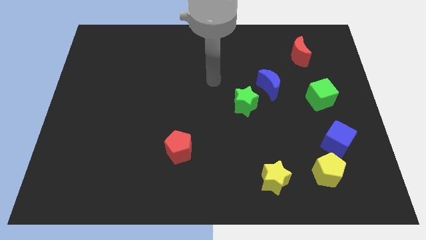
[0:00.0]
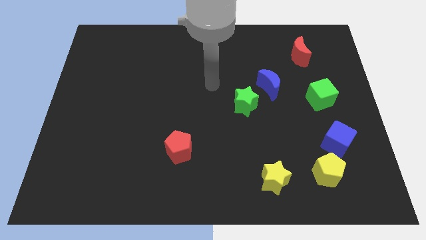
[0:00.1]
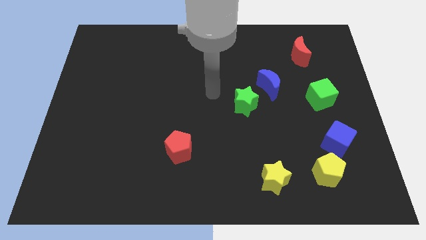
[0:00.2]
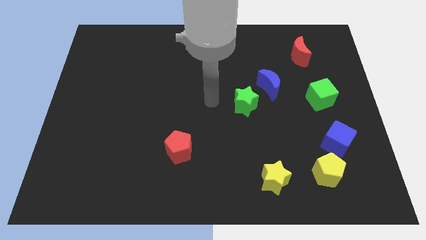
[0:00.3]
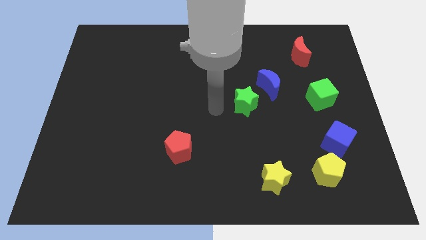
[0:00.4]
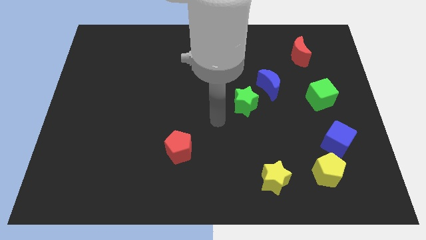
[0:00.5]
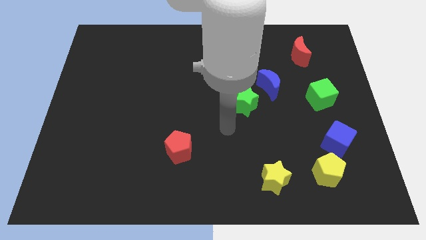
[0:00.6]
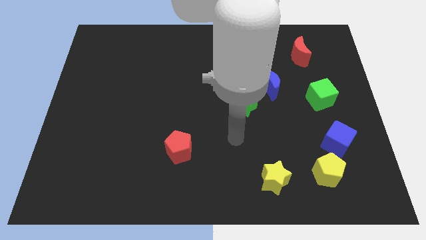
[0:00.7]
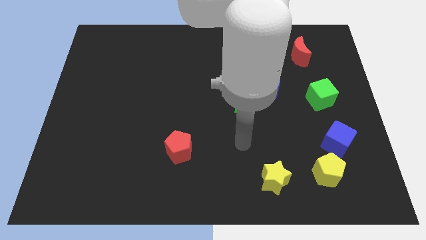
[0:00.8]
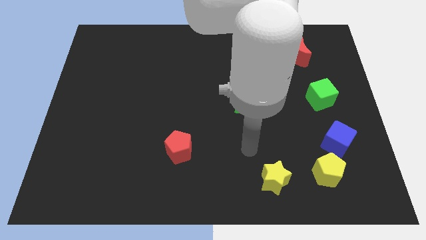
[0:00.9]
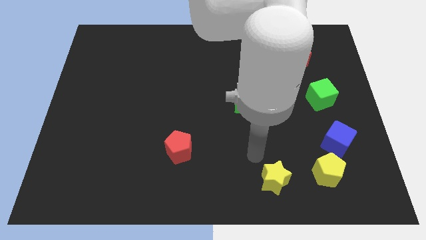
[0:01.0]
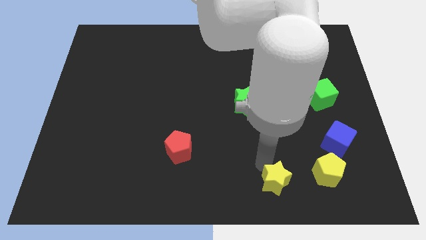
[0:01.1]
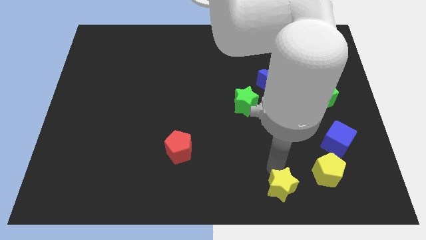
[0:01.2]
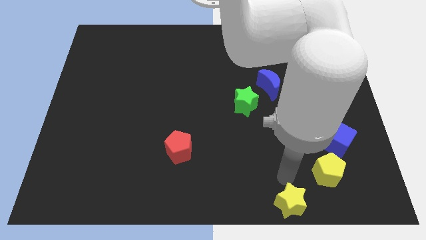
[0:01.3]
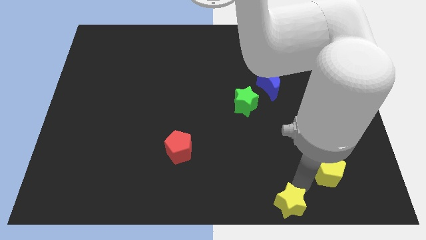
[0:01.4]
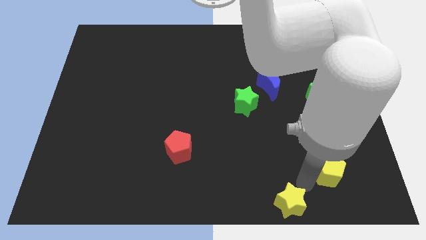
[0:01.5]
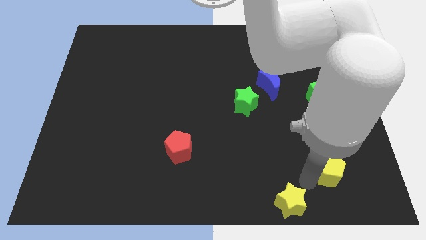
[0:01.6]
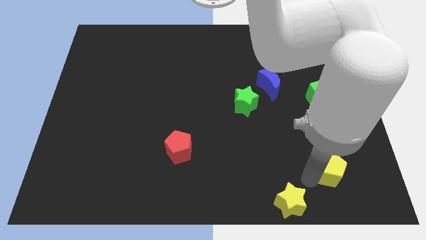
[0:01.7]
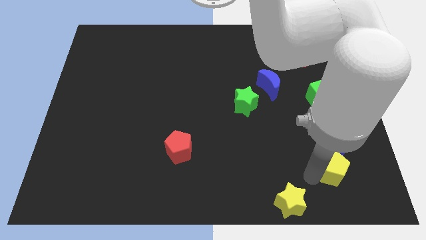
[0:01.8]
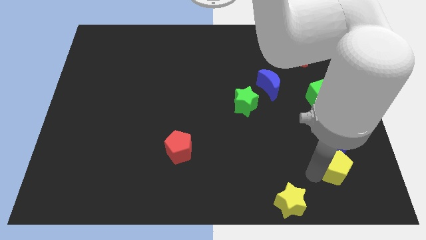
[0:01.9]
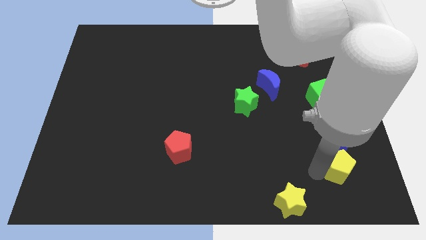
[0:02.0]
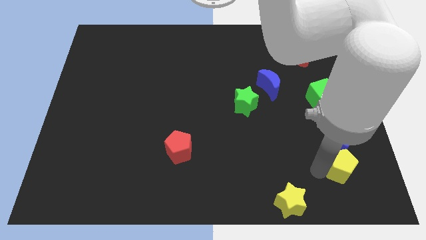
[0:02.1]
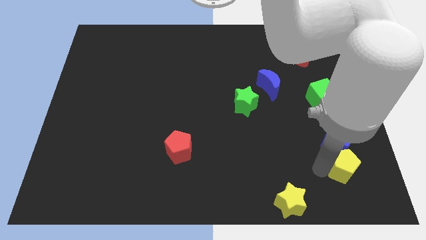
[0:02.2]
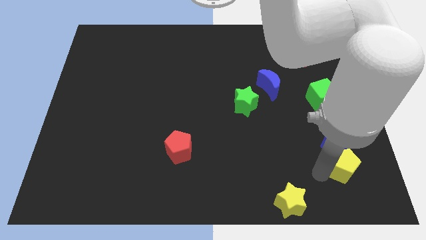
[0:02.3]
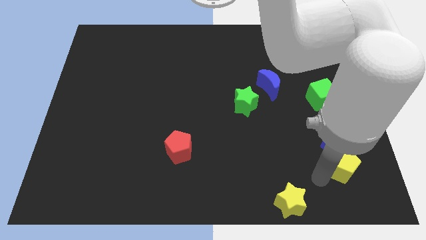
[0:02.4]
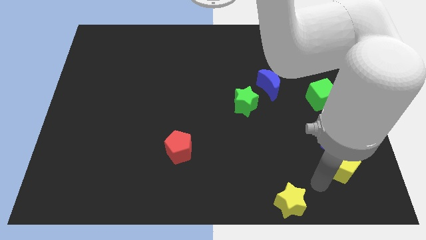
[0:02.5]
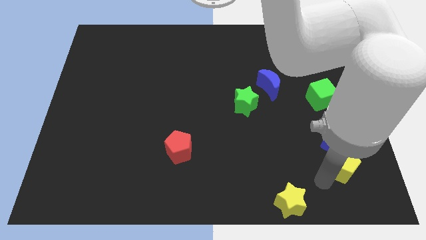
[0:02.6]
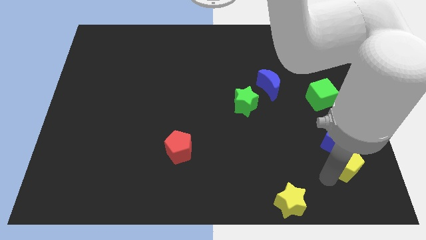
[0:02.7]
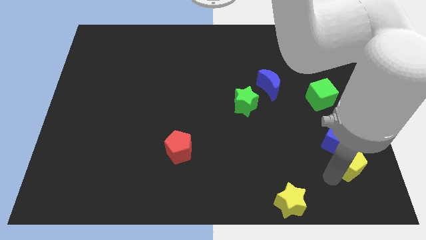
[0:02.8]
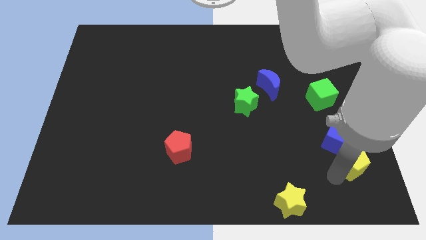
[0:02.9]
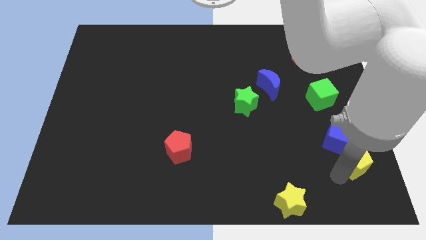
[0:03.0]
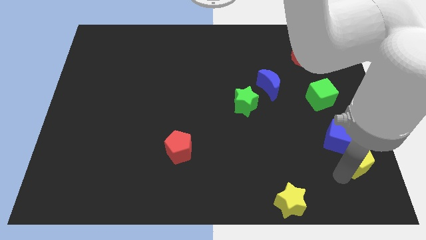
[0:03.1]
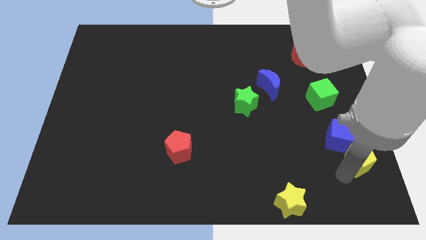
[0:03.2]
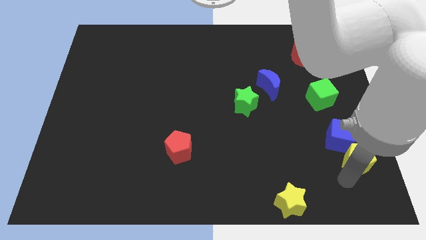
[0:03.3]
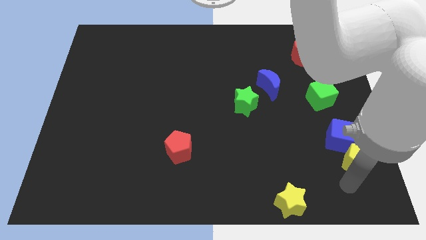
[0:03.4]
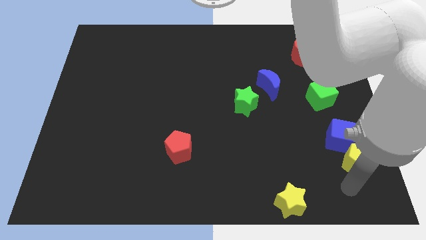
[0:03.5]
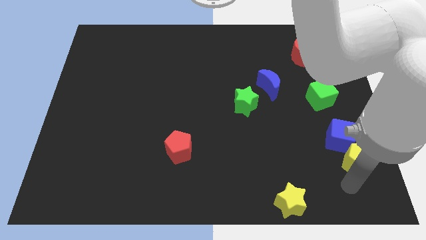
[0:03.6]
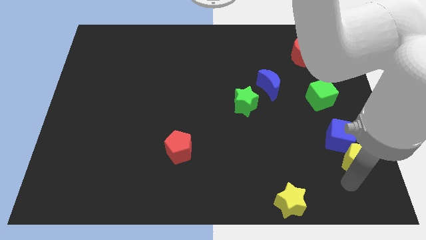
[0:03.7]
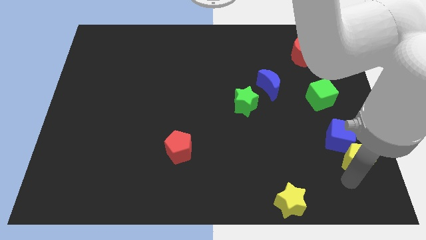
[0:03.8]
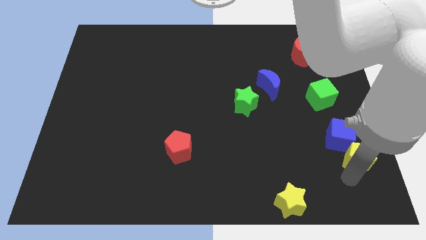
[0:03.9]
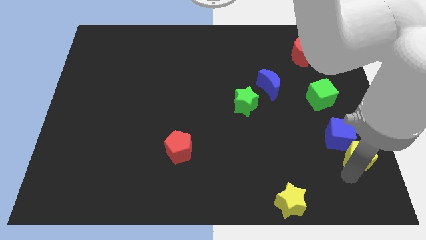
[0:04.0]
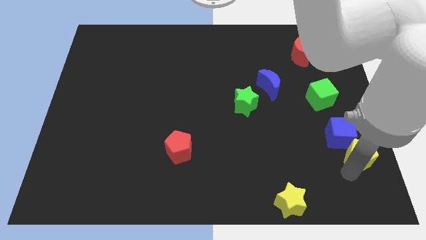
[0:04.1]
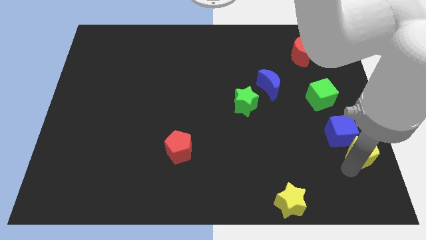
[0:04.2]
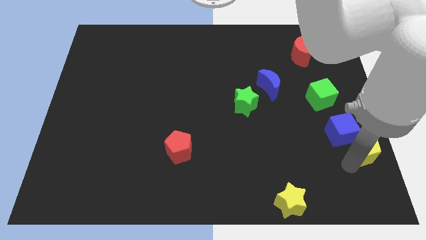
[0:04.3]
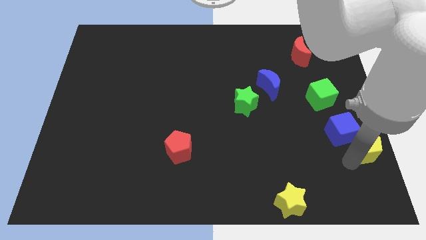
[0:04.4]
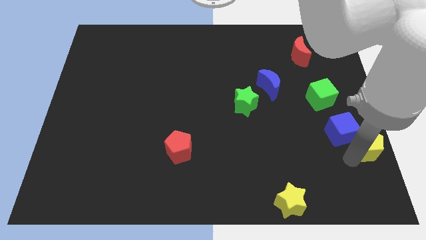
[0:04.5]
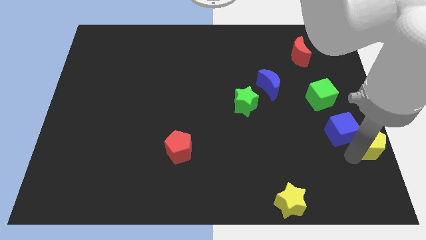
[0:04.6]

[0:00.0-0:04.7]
move the yellow pentagon to the center right

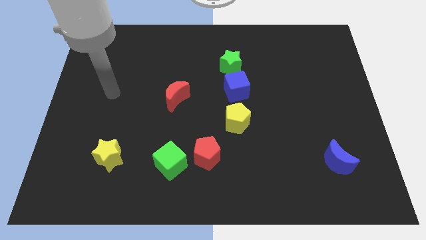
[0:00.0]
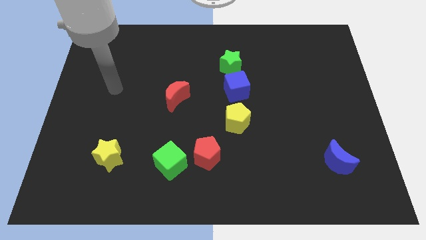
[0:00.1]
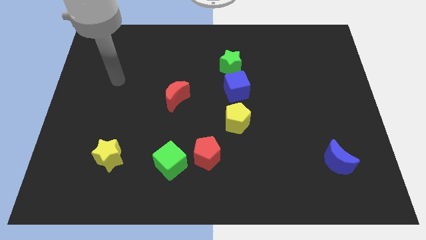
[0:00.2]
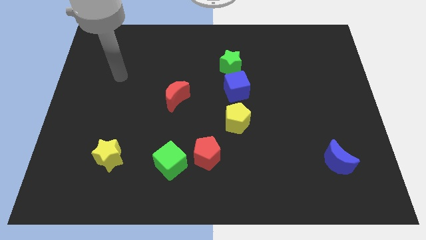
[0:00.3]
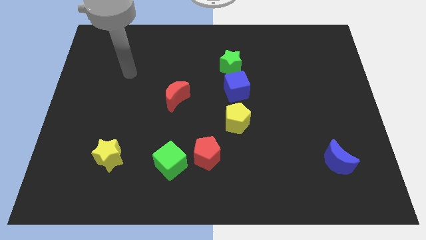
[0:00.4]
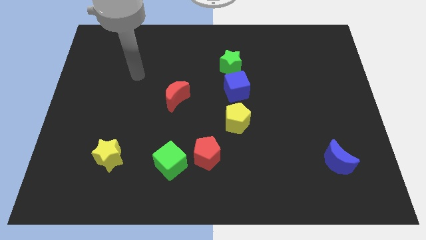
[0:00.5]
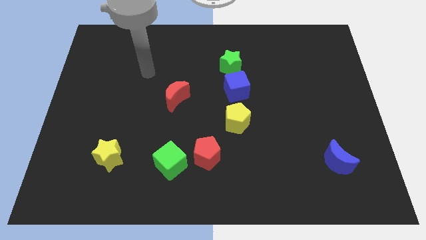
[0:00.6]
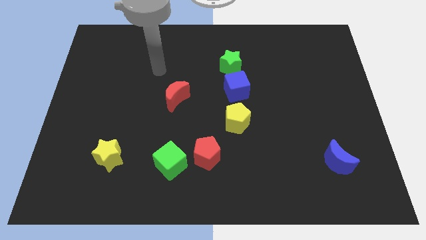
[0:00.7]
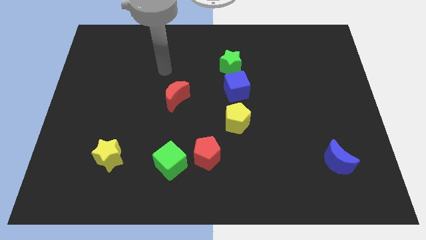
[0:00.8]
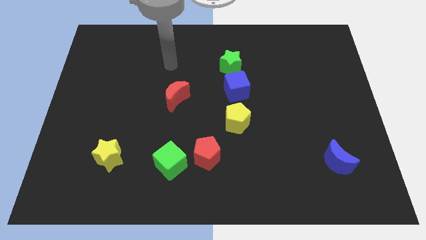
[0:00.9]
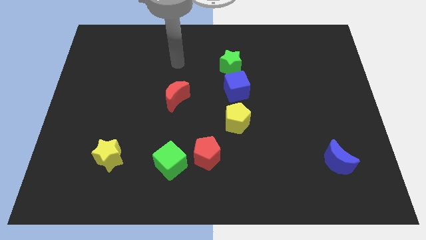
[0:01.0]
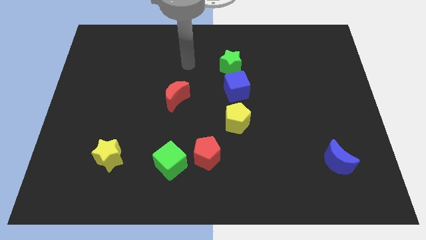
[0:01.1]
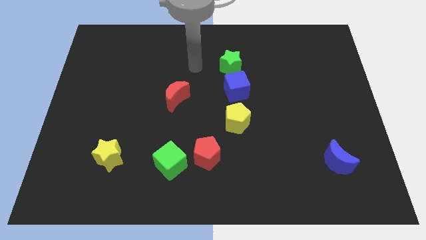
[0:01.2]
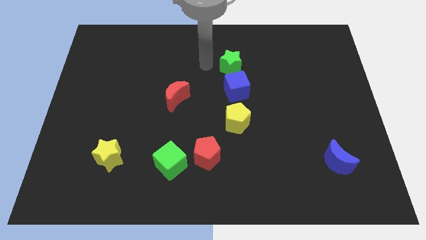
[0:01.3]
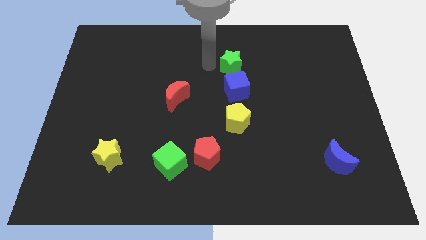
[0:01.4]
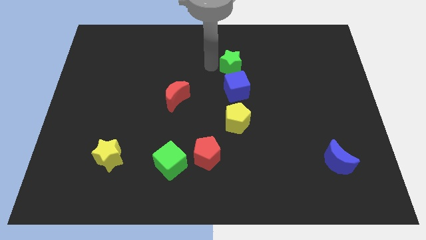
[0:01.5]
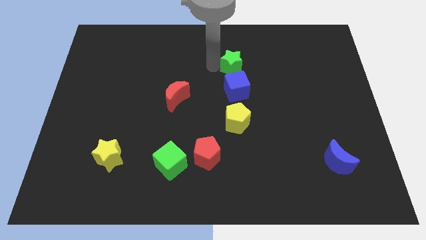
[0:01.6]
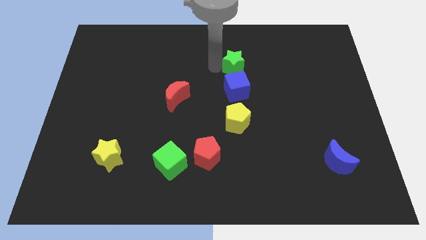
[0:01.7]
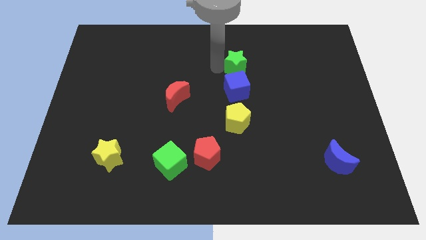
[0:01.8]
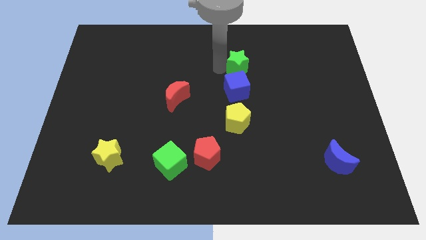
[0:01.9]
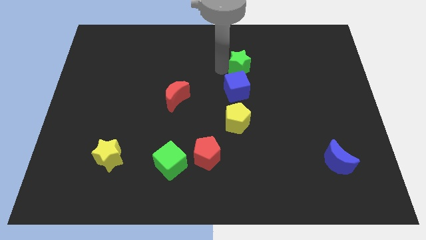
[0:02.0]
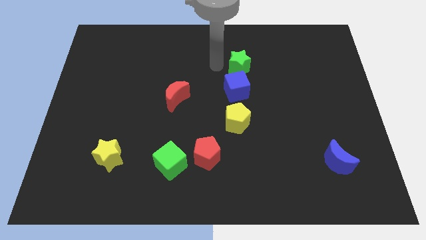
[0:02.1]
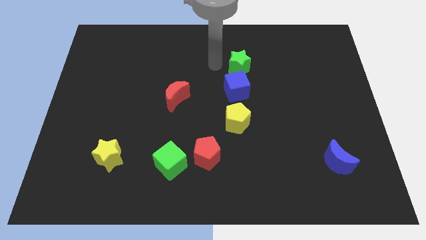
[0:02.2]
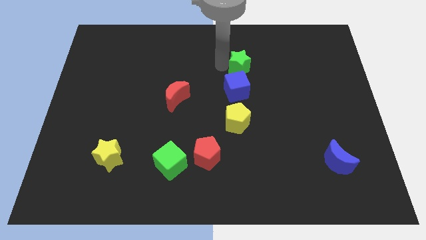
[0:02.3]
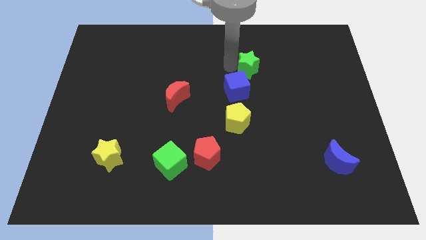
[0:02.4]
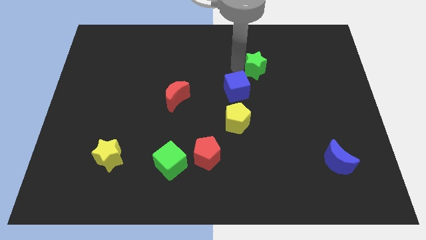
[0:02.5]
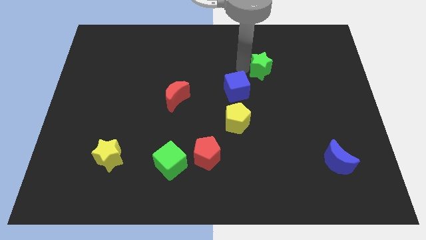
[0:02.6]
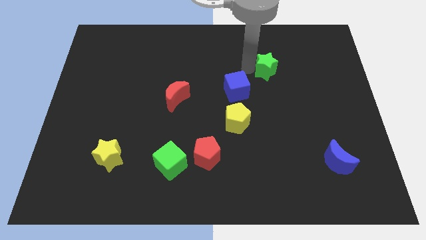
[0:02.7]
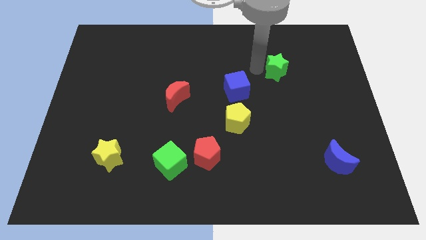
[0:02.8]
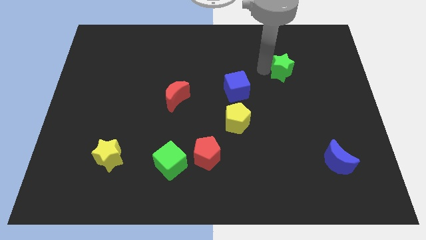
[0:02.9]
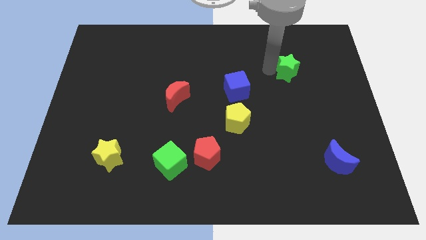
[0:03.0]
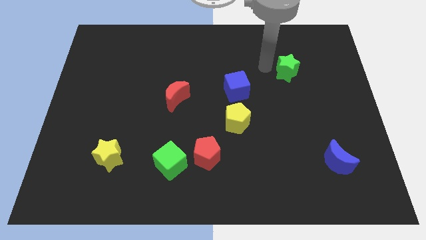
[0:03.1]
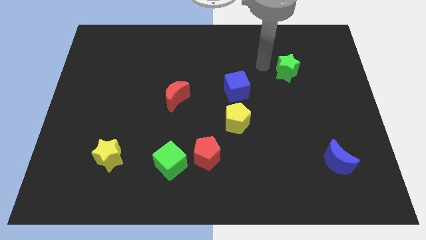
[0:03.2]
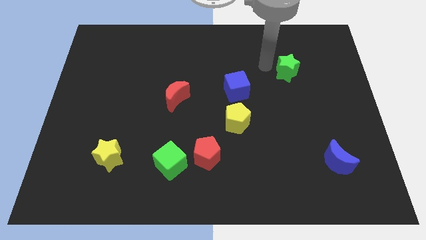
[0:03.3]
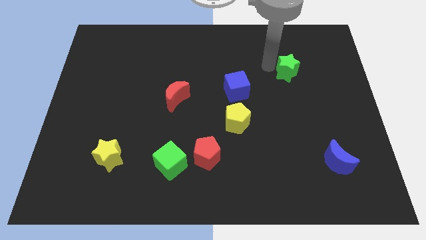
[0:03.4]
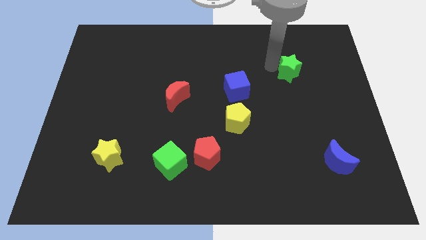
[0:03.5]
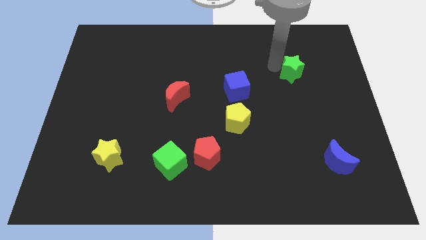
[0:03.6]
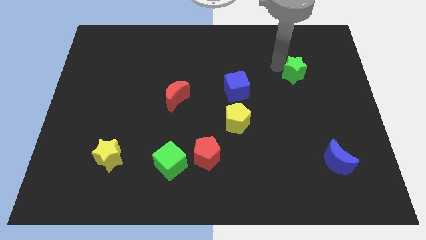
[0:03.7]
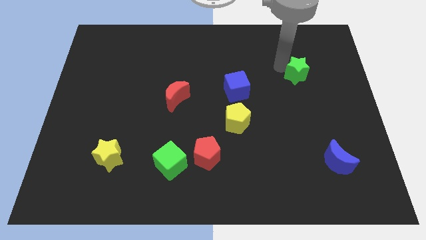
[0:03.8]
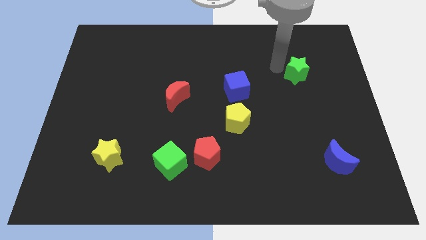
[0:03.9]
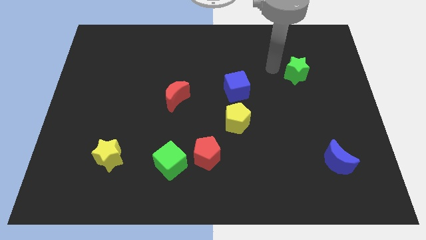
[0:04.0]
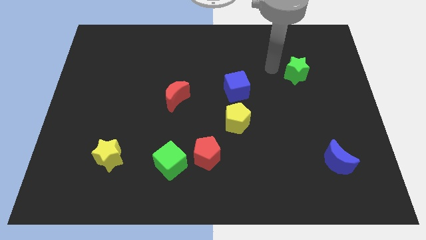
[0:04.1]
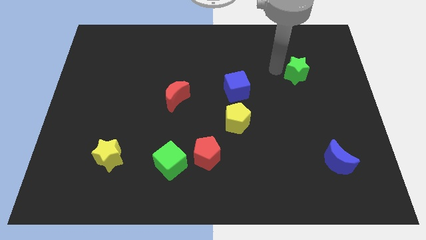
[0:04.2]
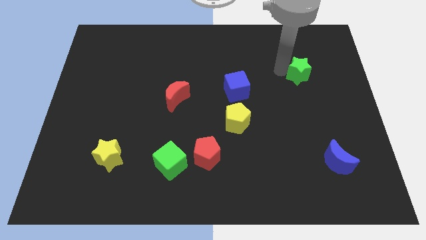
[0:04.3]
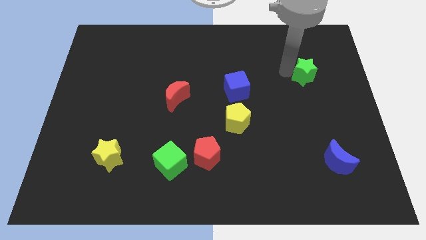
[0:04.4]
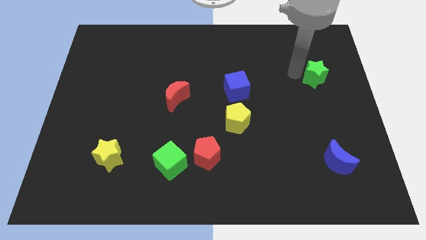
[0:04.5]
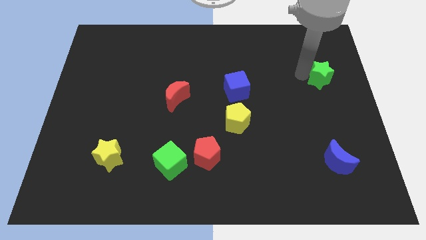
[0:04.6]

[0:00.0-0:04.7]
put the green star to the right side
